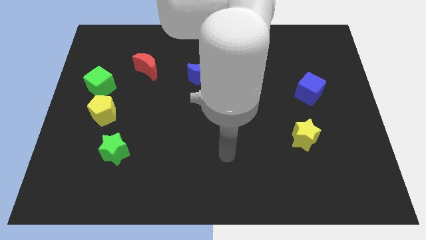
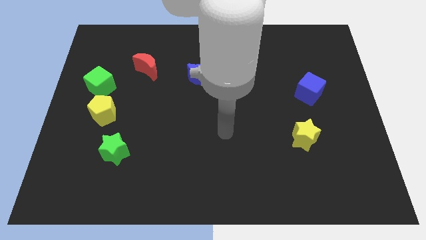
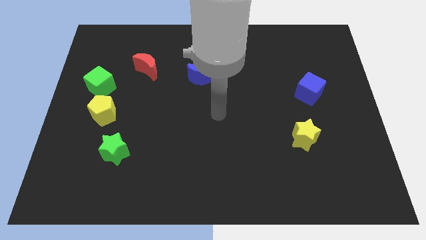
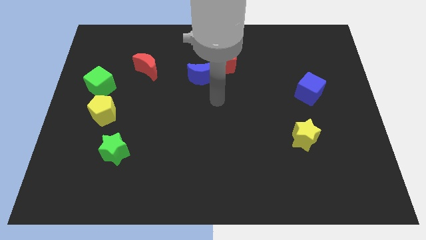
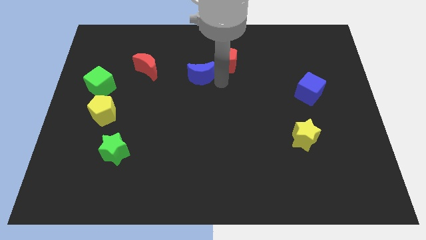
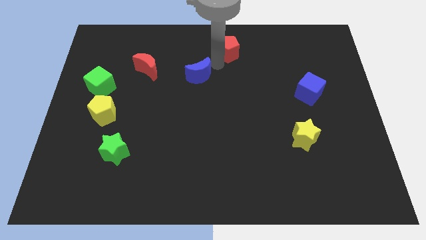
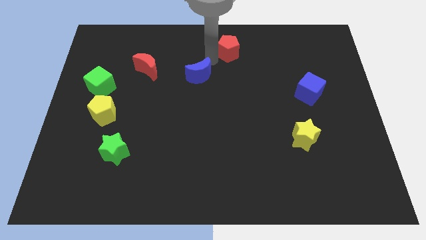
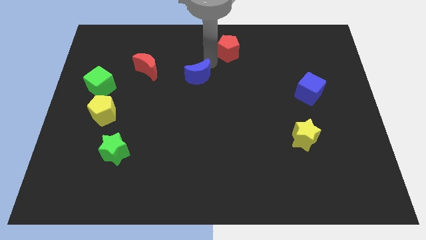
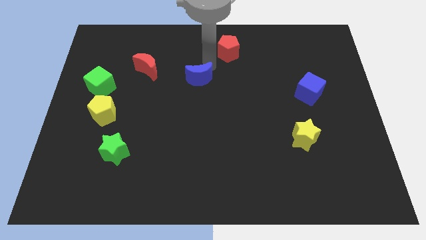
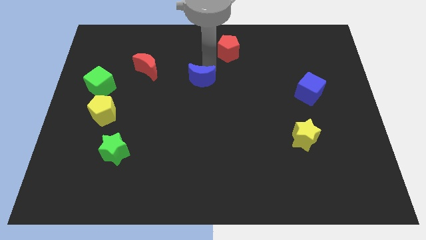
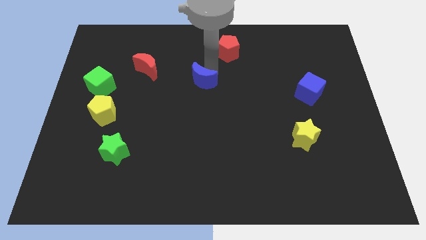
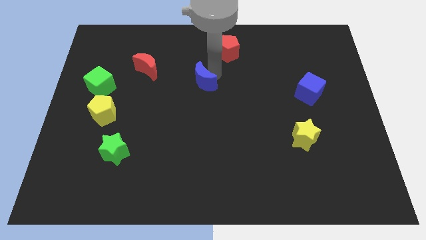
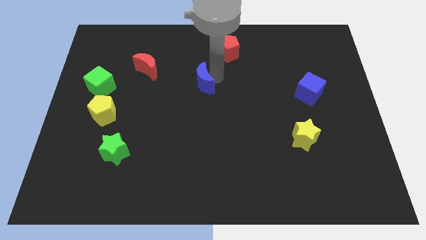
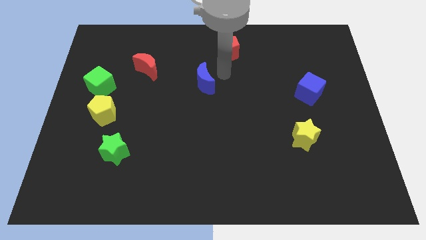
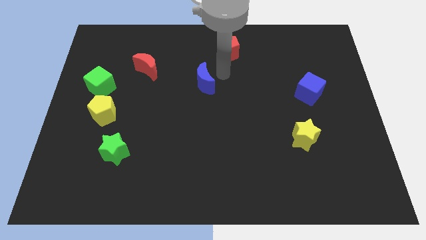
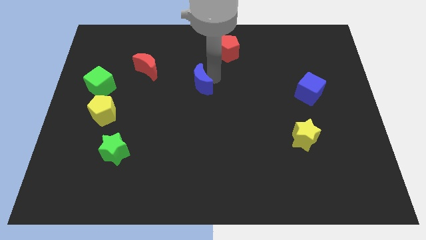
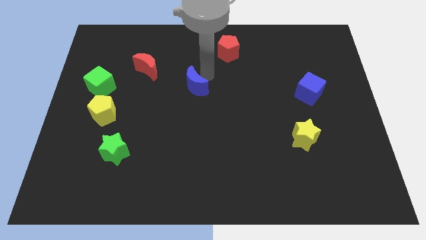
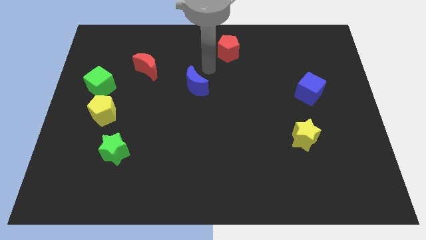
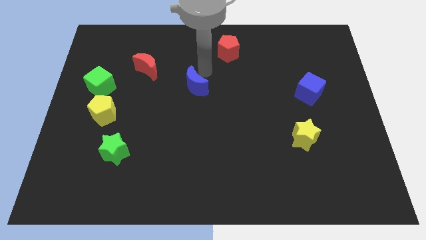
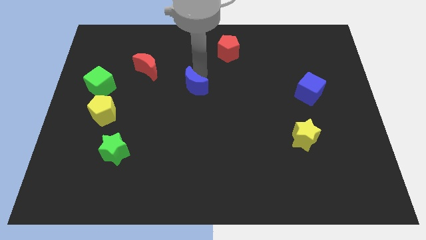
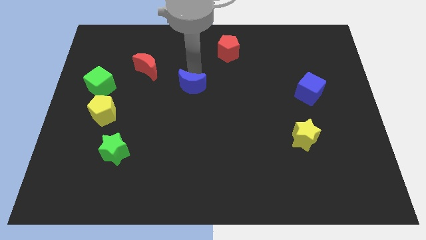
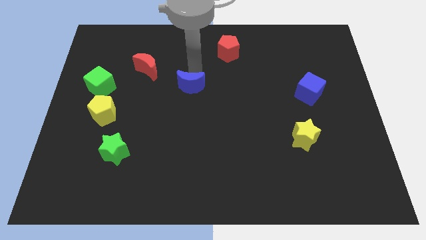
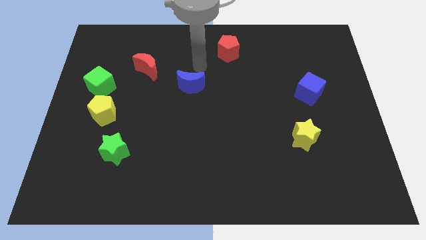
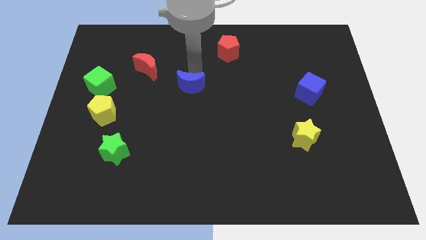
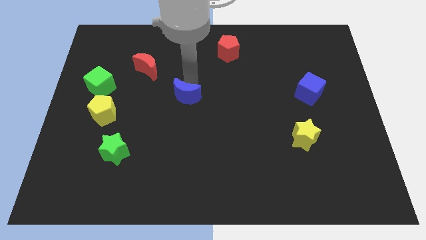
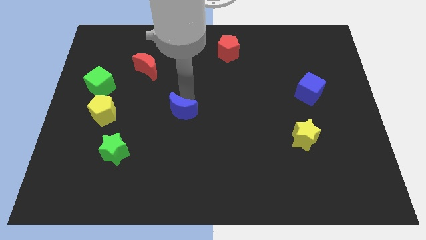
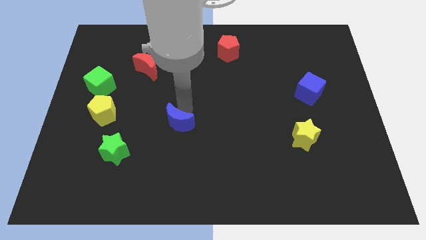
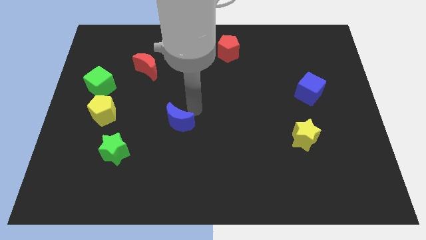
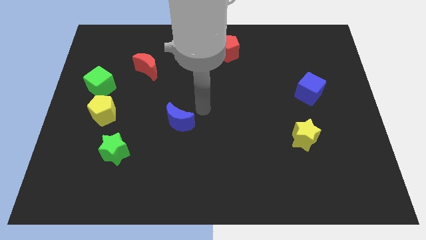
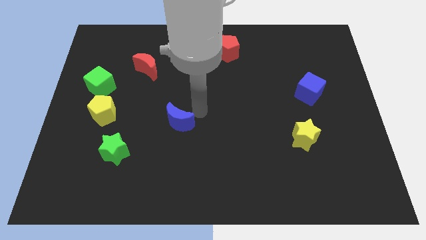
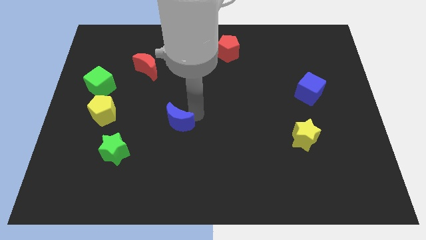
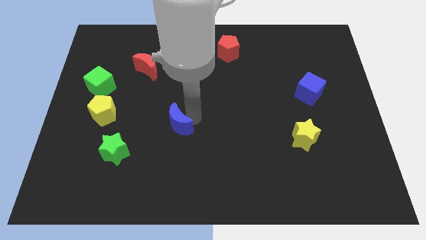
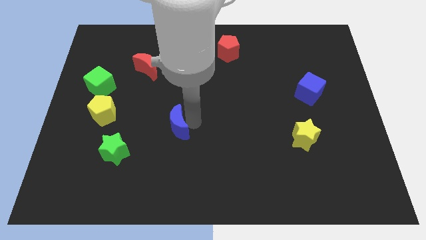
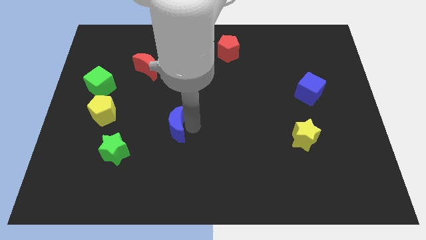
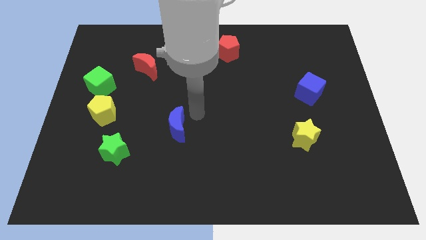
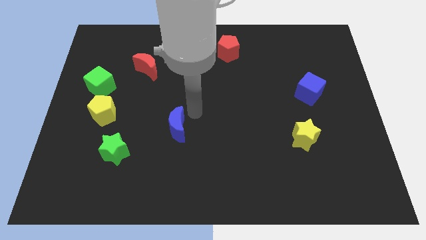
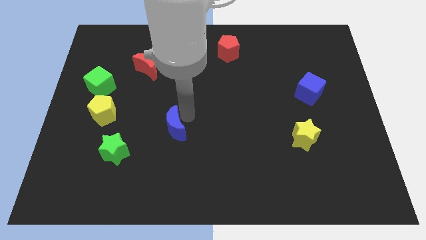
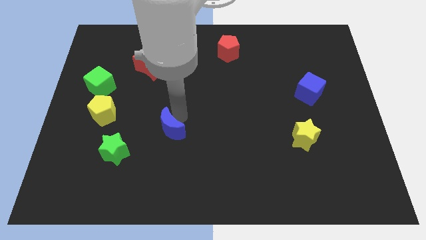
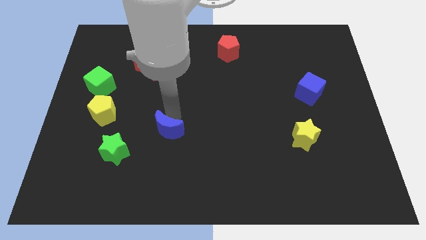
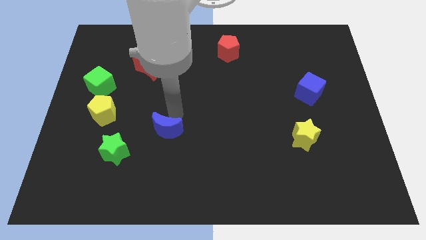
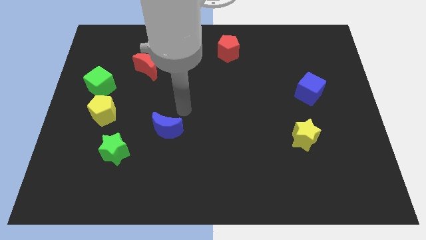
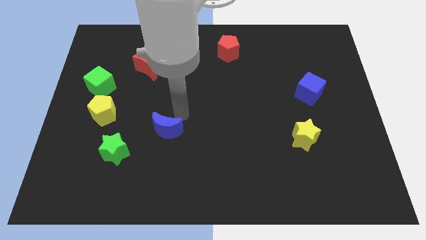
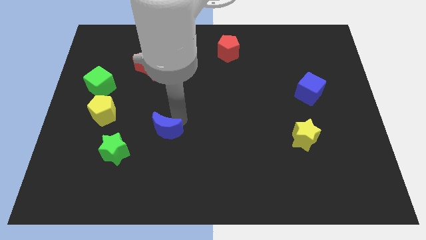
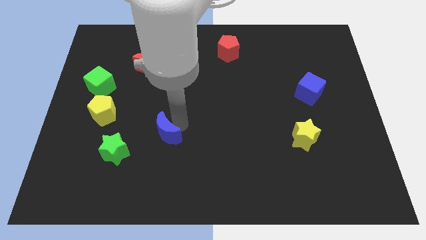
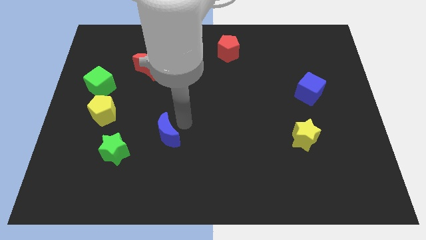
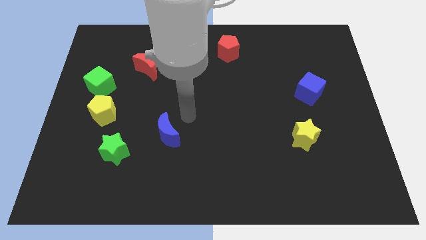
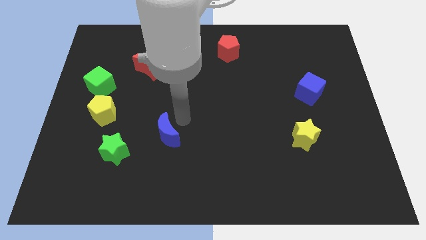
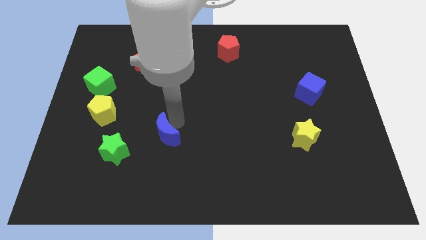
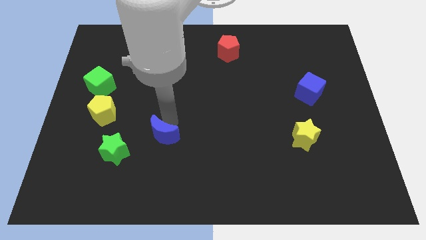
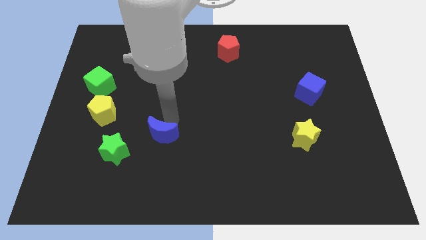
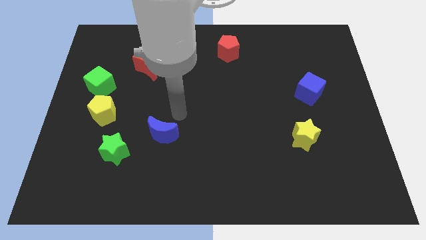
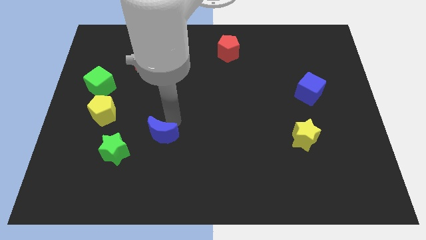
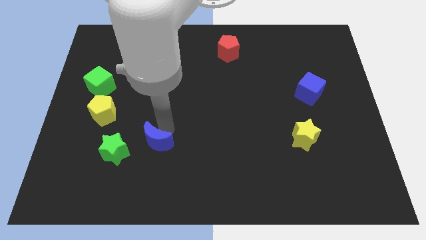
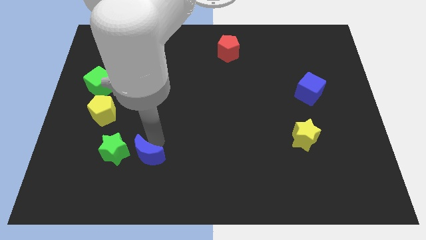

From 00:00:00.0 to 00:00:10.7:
slide the blue moon to the bottom right of the green star

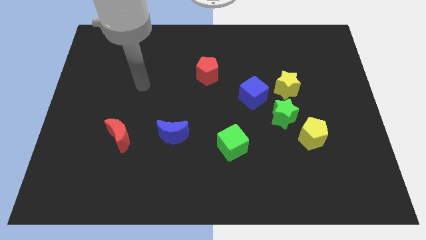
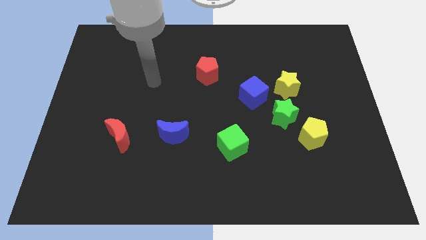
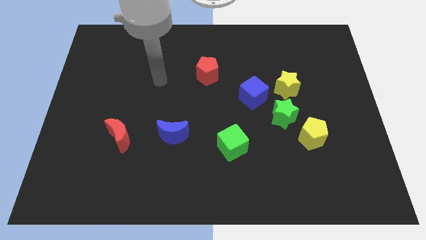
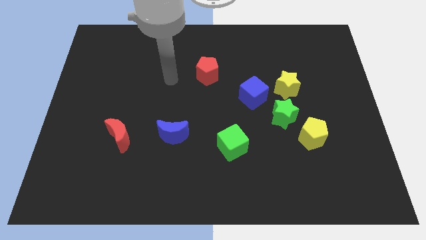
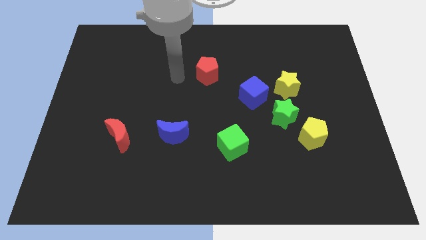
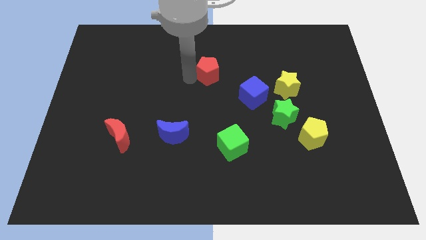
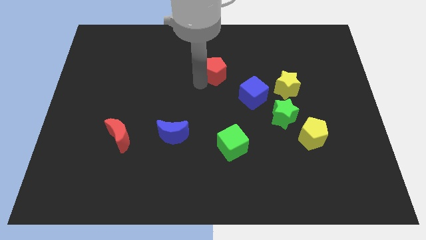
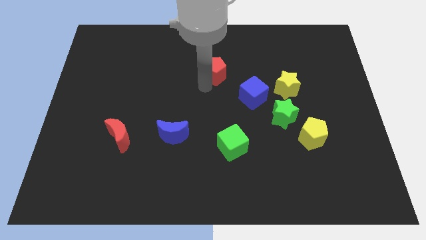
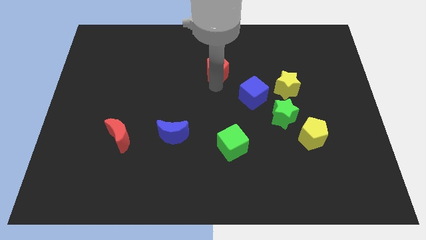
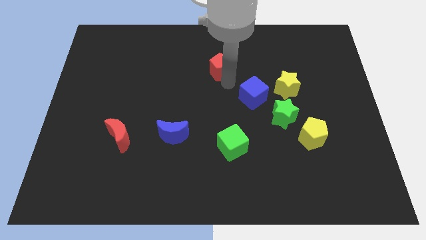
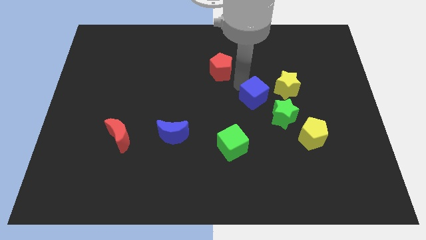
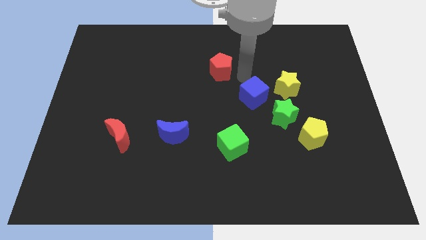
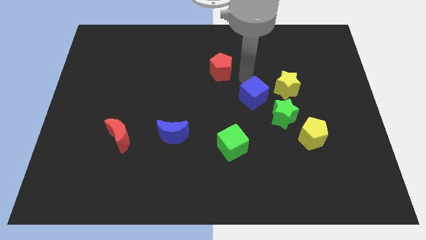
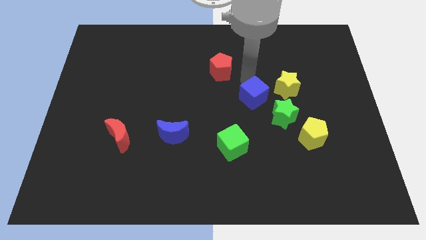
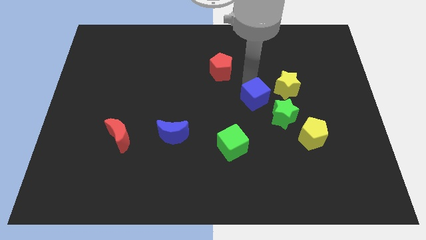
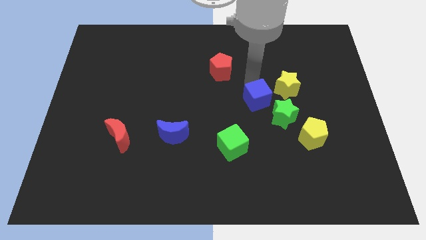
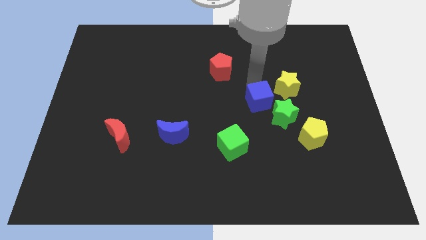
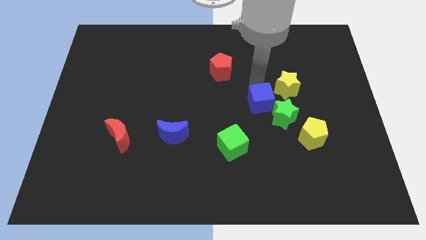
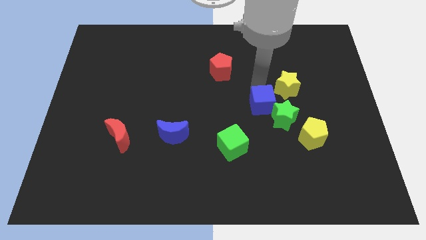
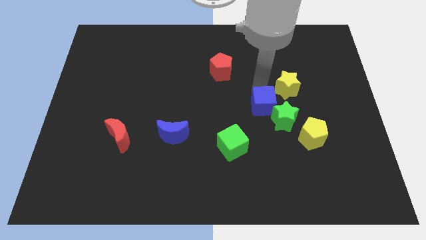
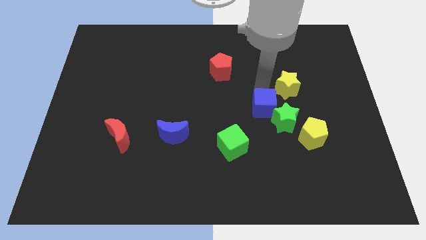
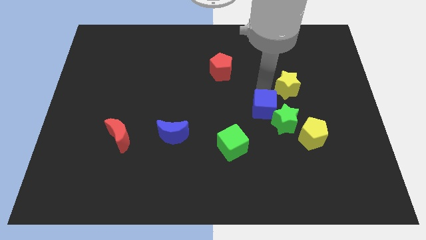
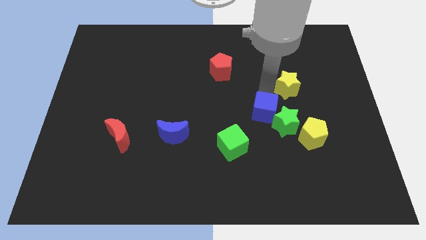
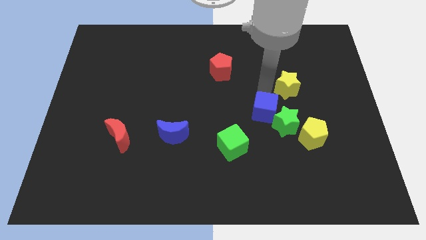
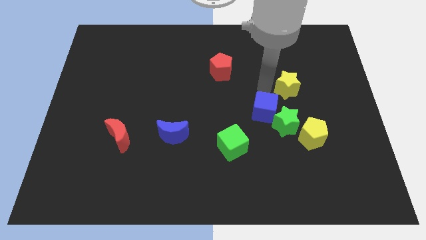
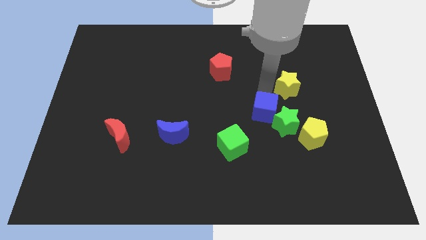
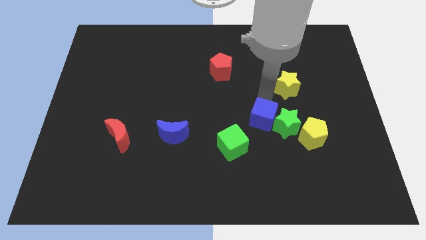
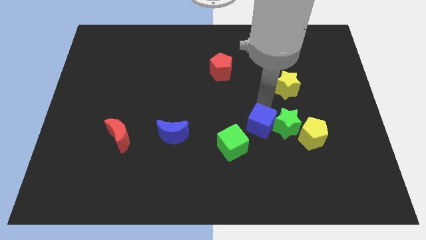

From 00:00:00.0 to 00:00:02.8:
move the blue cube diagonally down and to the left of the green star
